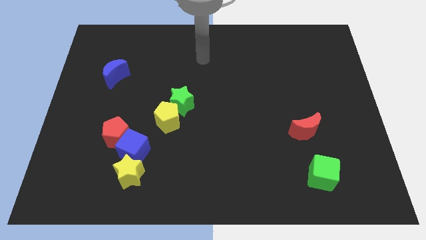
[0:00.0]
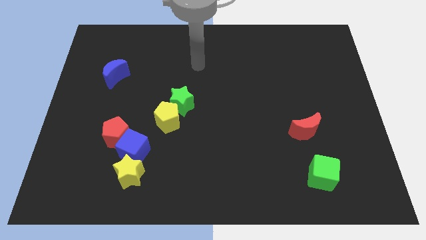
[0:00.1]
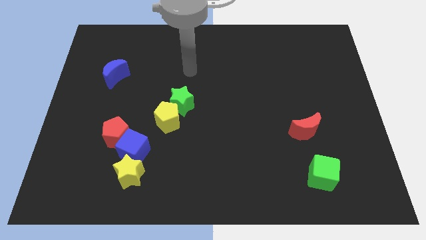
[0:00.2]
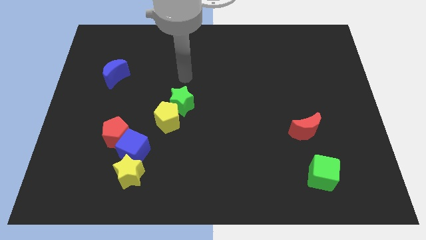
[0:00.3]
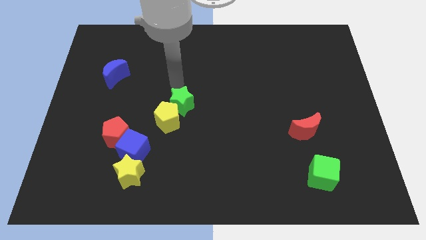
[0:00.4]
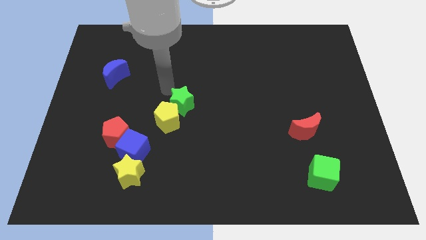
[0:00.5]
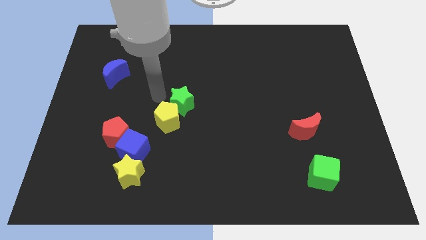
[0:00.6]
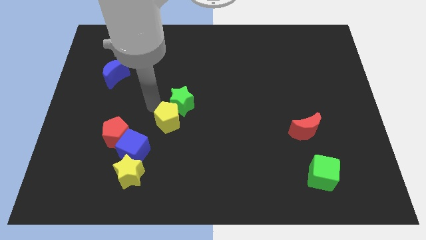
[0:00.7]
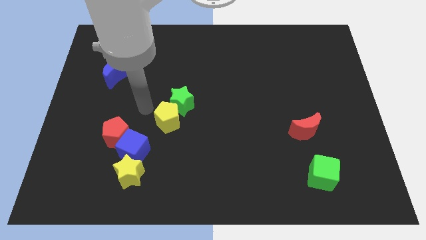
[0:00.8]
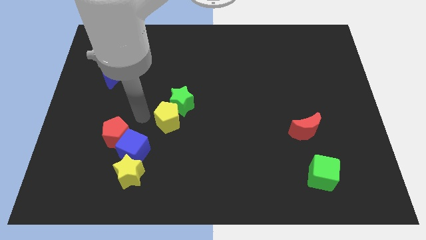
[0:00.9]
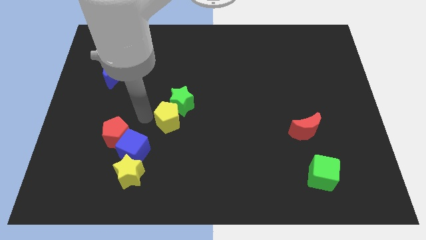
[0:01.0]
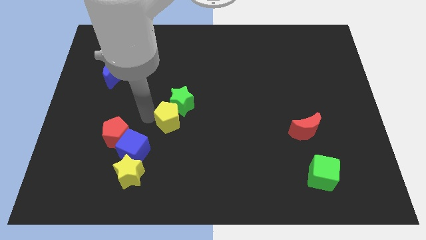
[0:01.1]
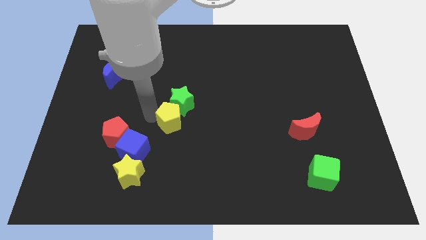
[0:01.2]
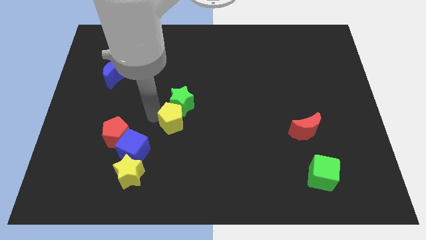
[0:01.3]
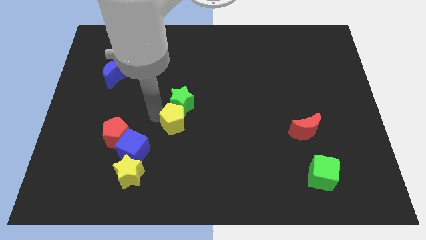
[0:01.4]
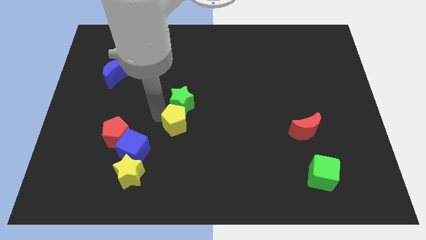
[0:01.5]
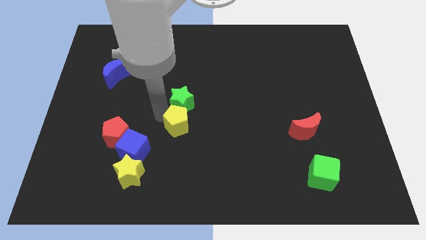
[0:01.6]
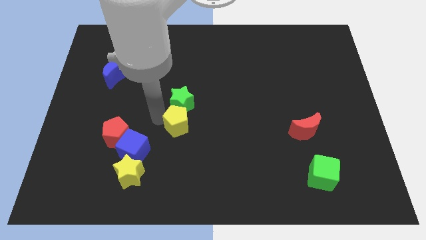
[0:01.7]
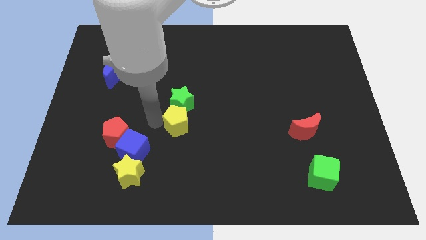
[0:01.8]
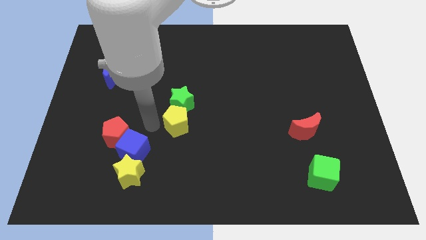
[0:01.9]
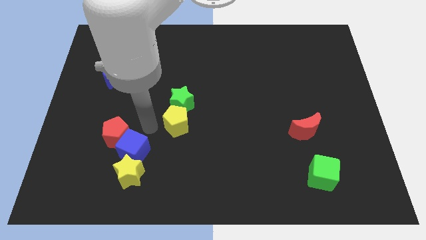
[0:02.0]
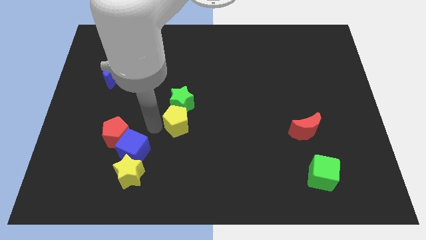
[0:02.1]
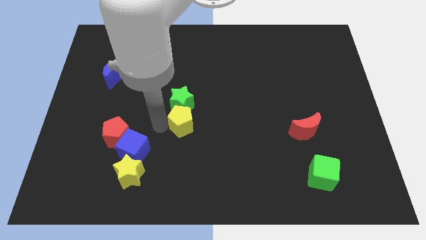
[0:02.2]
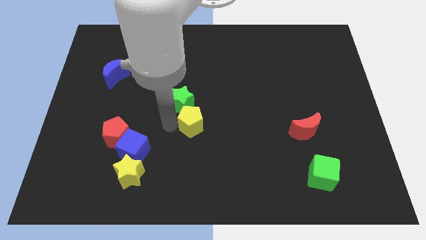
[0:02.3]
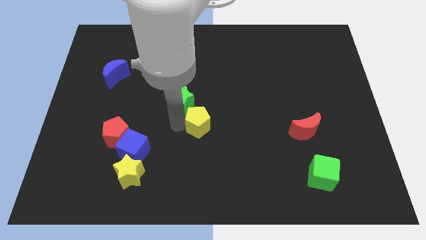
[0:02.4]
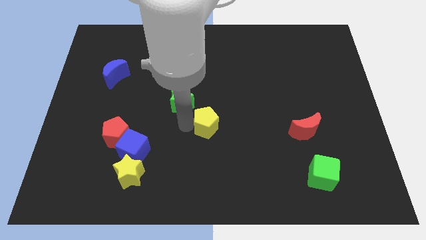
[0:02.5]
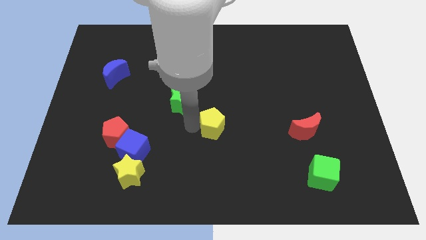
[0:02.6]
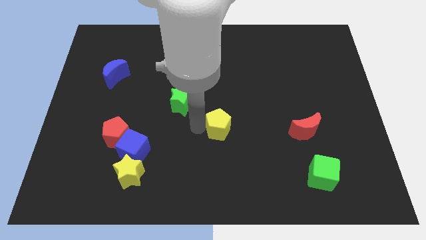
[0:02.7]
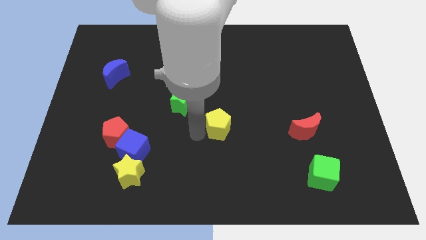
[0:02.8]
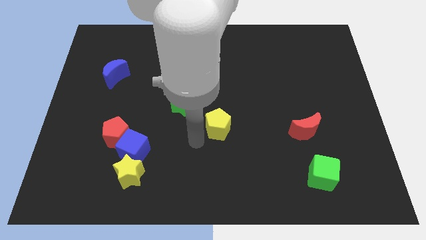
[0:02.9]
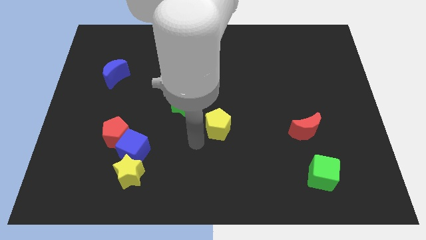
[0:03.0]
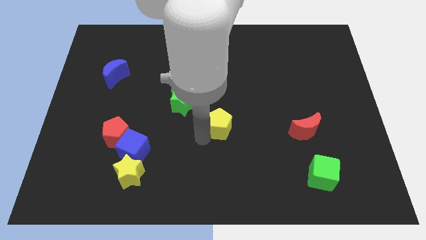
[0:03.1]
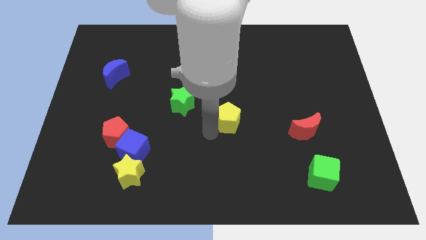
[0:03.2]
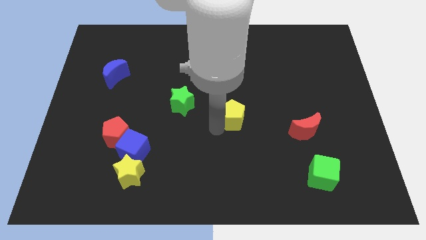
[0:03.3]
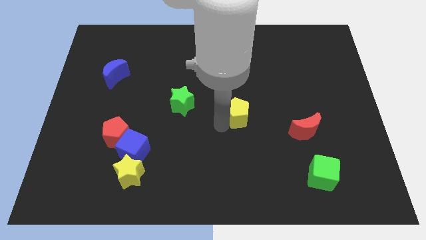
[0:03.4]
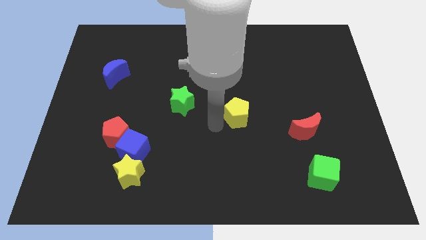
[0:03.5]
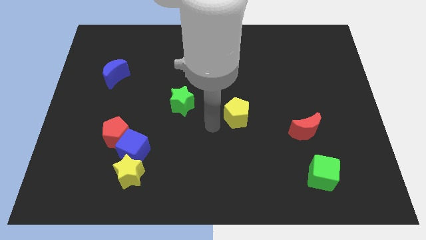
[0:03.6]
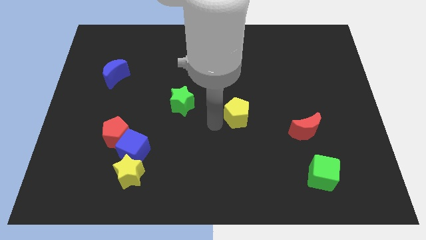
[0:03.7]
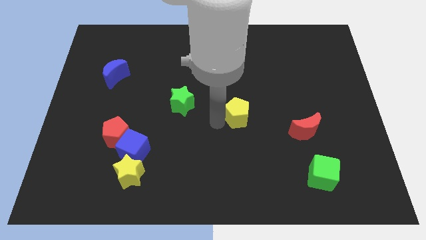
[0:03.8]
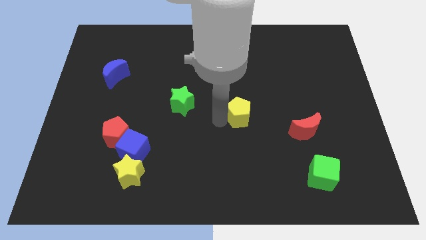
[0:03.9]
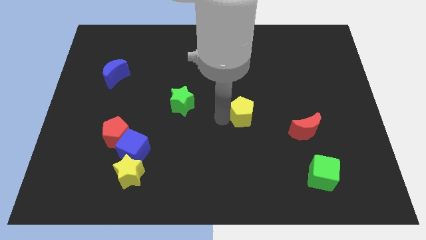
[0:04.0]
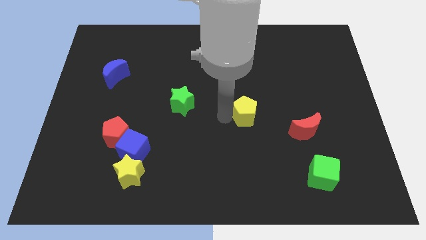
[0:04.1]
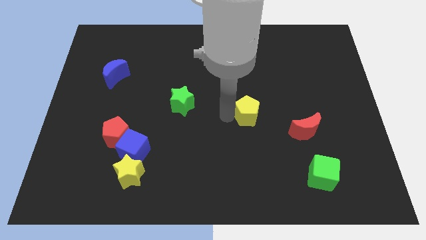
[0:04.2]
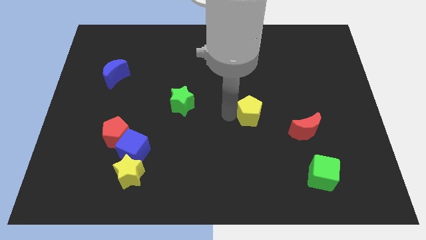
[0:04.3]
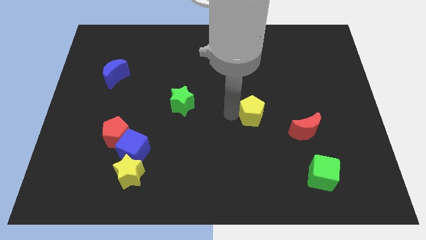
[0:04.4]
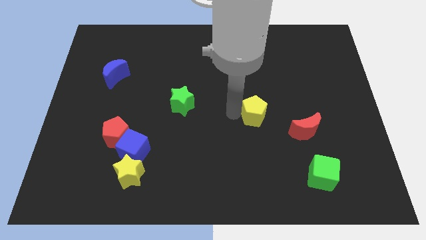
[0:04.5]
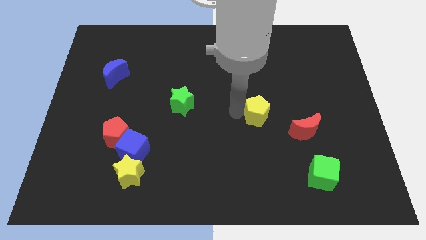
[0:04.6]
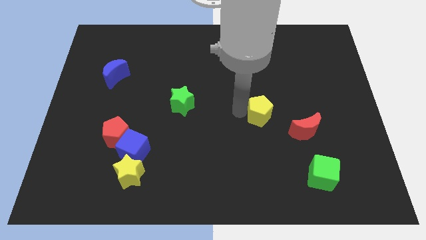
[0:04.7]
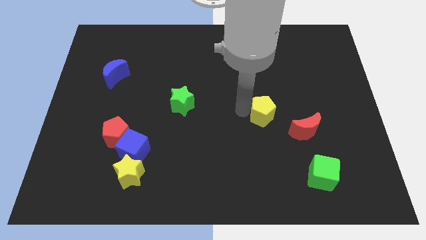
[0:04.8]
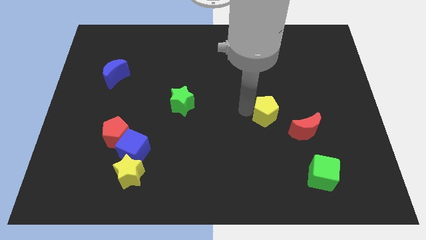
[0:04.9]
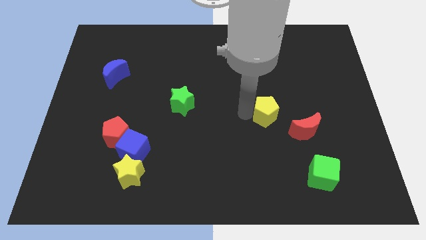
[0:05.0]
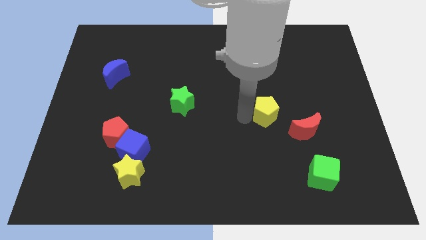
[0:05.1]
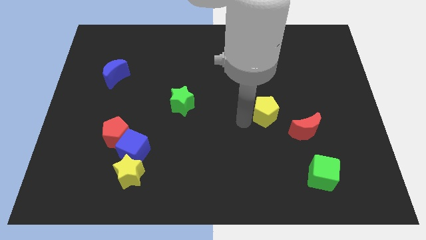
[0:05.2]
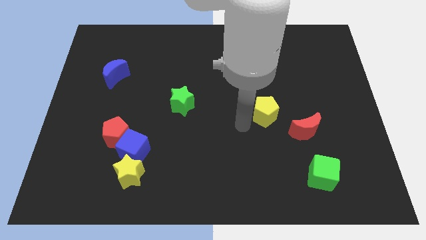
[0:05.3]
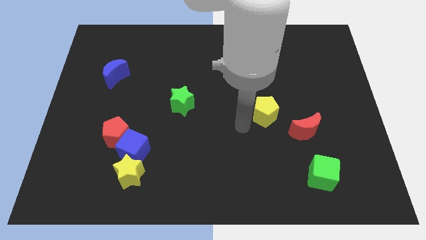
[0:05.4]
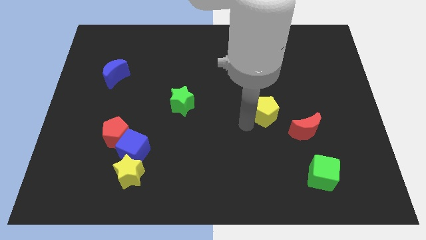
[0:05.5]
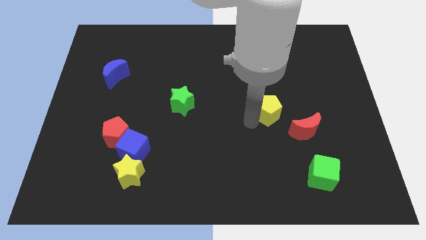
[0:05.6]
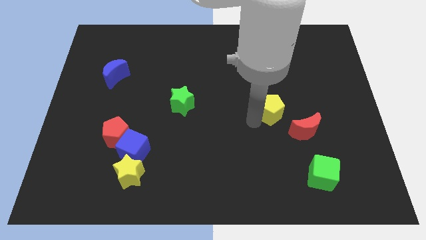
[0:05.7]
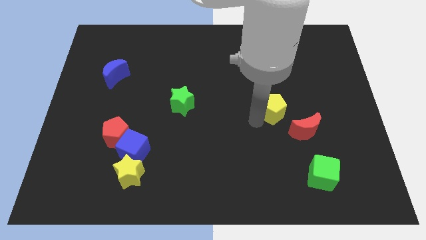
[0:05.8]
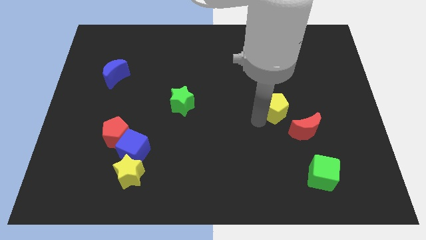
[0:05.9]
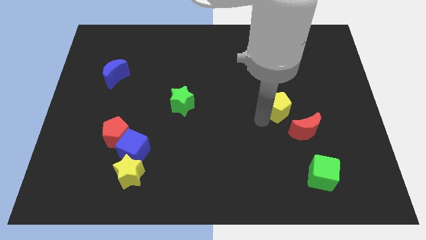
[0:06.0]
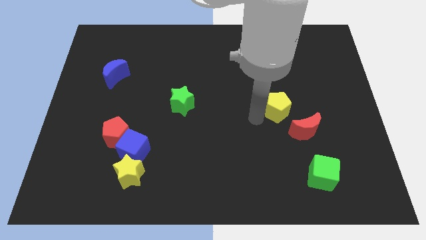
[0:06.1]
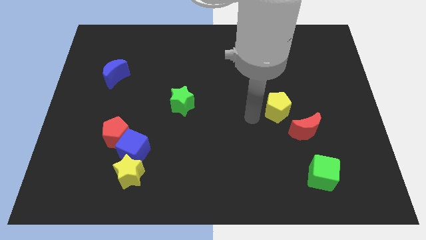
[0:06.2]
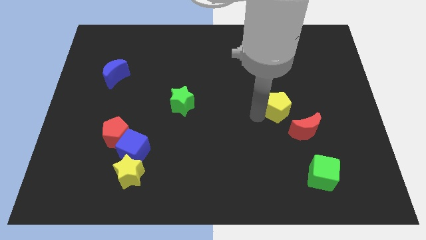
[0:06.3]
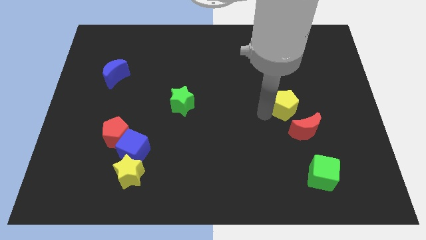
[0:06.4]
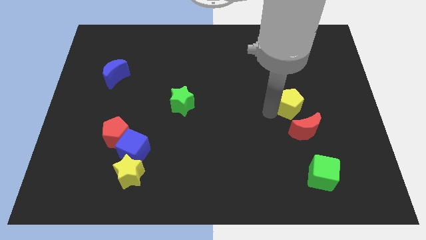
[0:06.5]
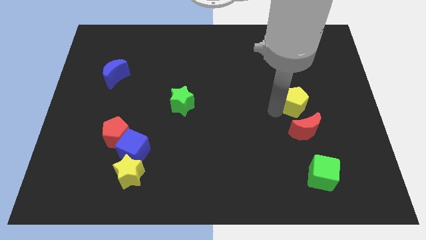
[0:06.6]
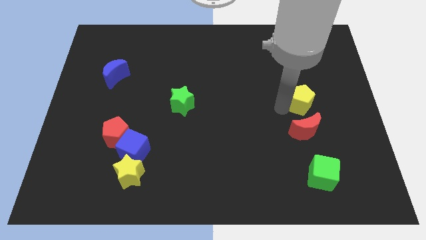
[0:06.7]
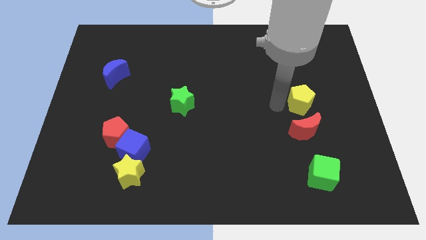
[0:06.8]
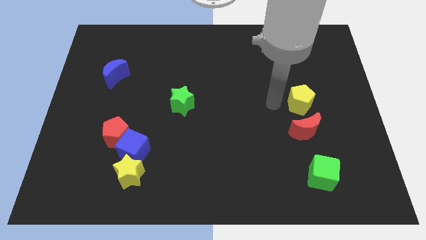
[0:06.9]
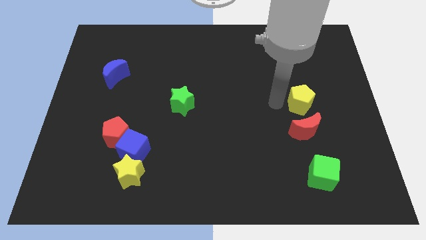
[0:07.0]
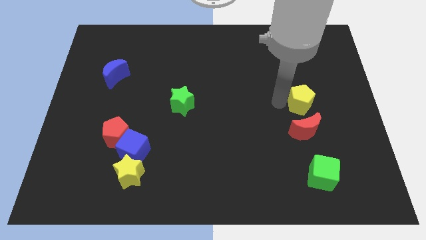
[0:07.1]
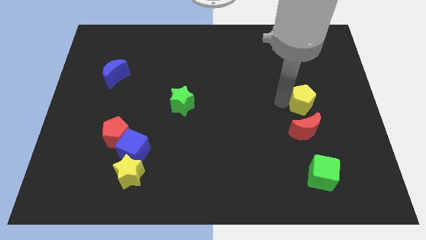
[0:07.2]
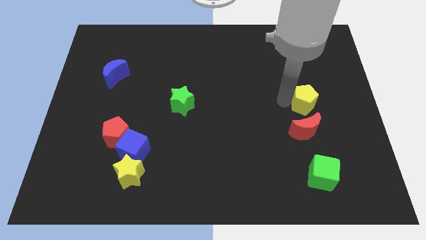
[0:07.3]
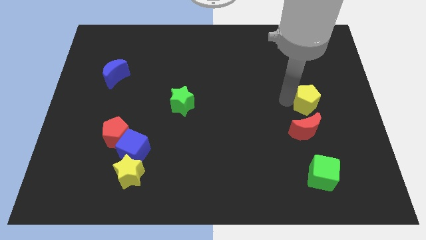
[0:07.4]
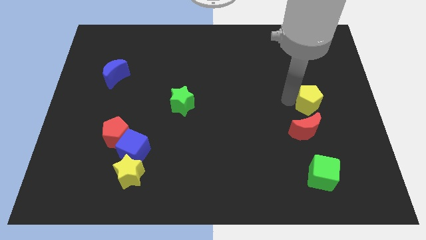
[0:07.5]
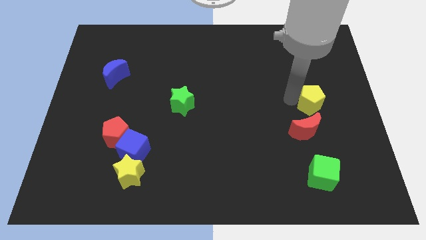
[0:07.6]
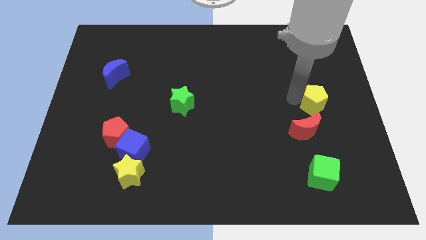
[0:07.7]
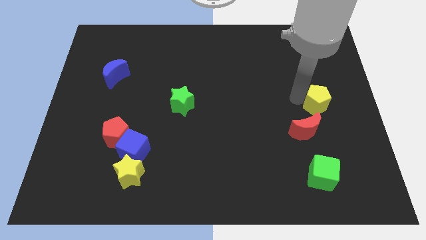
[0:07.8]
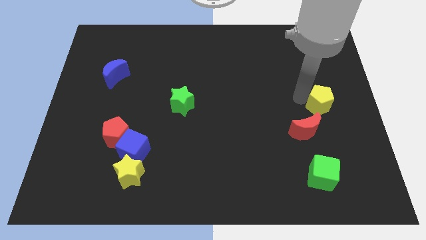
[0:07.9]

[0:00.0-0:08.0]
push the yellow pentagon to the center right

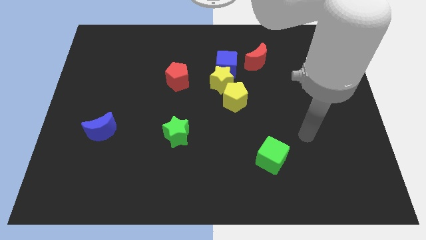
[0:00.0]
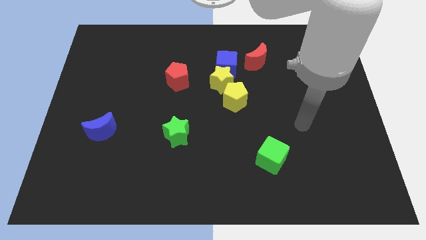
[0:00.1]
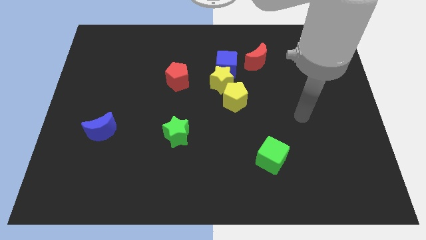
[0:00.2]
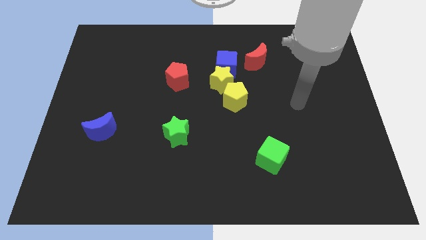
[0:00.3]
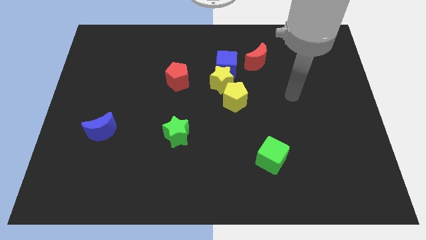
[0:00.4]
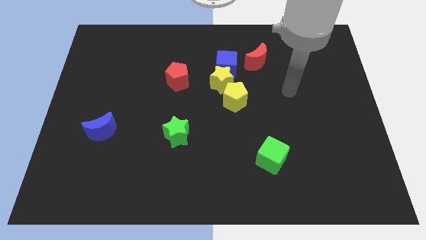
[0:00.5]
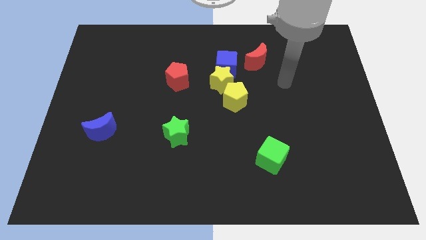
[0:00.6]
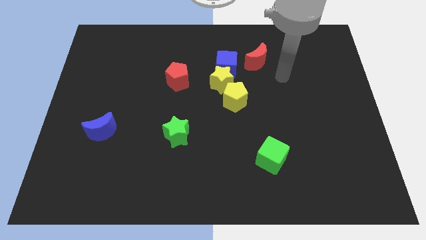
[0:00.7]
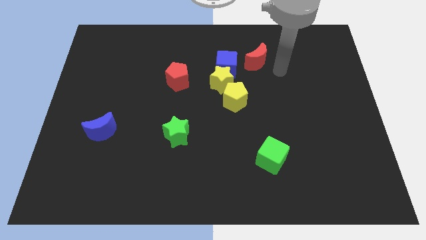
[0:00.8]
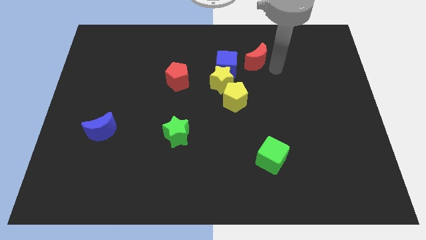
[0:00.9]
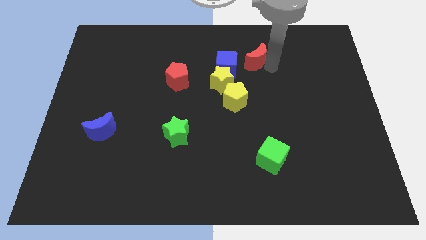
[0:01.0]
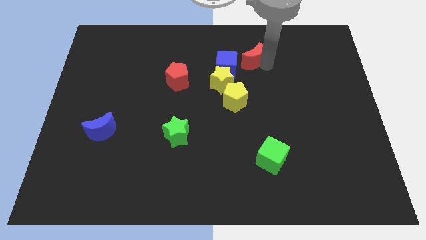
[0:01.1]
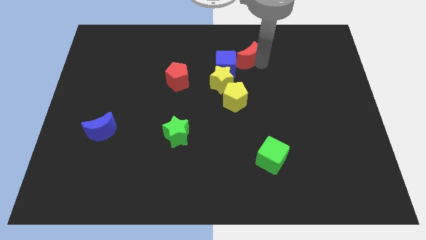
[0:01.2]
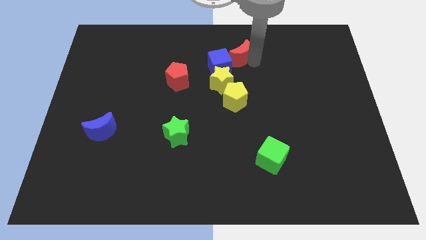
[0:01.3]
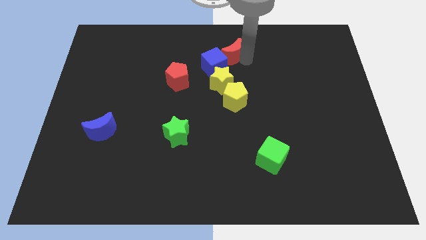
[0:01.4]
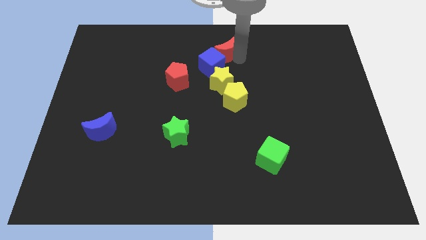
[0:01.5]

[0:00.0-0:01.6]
move the red moon to the top side
